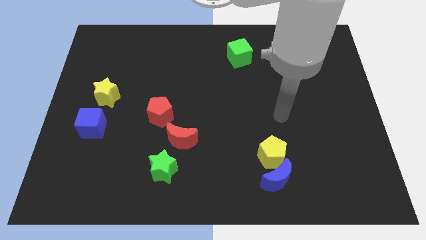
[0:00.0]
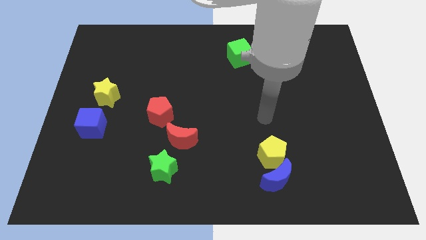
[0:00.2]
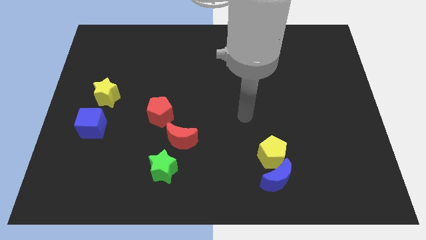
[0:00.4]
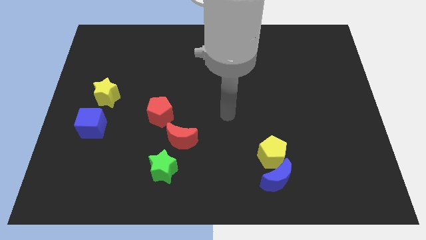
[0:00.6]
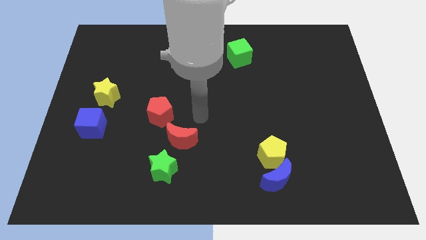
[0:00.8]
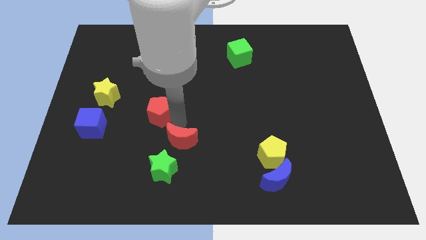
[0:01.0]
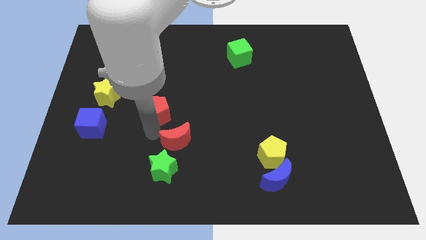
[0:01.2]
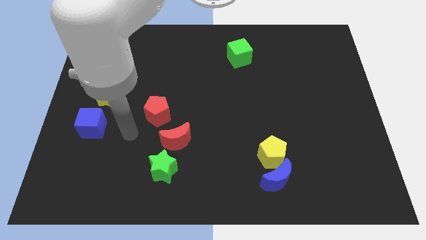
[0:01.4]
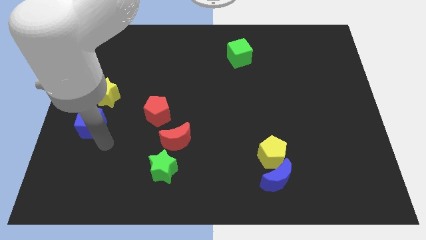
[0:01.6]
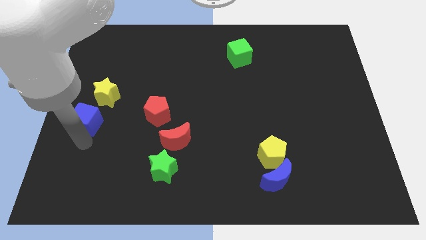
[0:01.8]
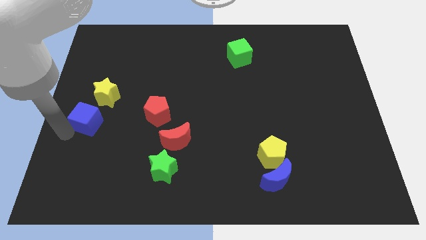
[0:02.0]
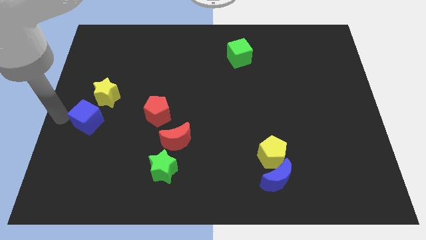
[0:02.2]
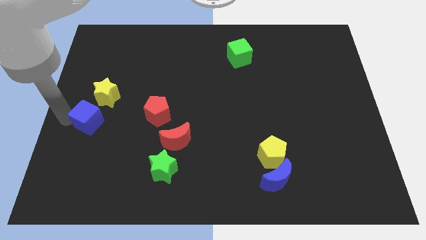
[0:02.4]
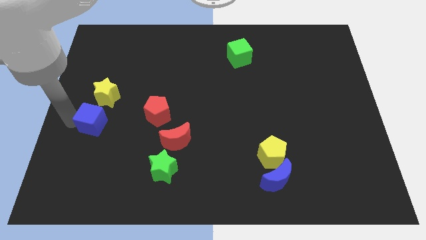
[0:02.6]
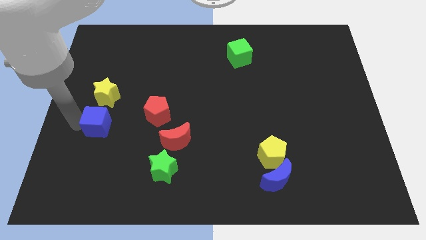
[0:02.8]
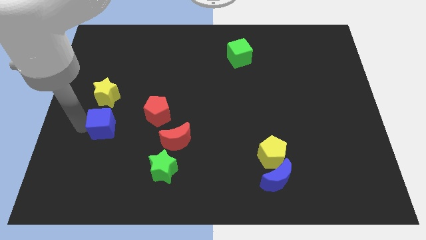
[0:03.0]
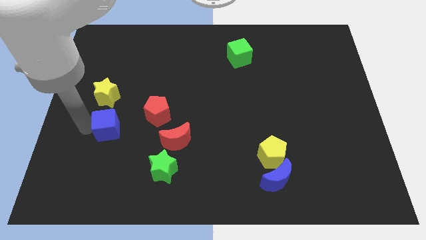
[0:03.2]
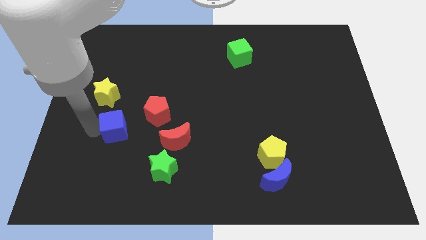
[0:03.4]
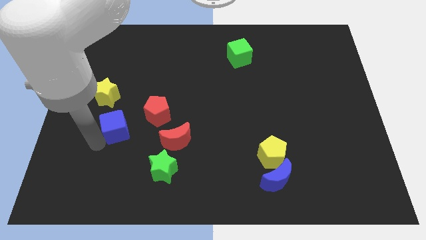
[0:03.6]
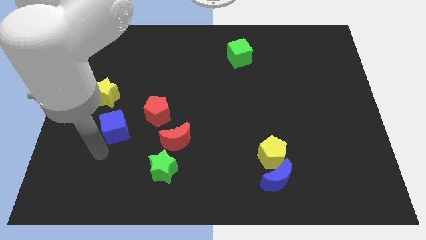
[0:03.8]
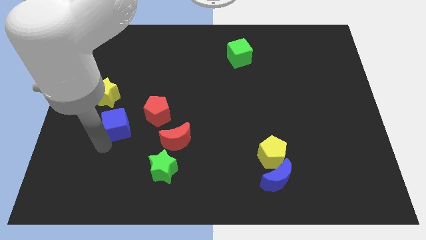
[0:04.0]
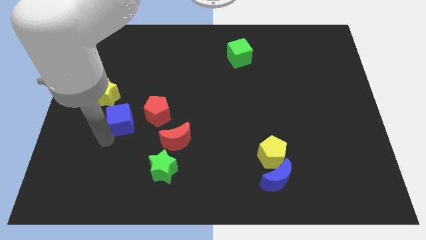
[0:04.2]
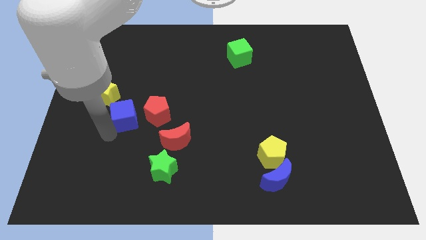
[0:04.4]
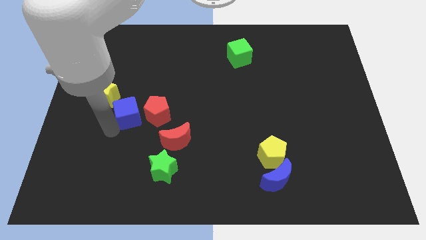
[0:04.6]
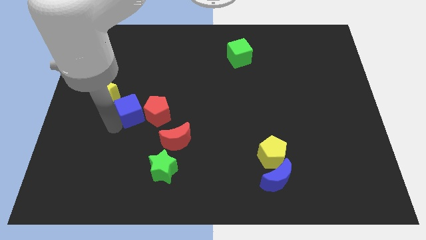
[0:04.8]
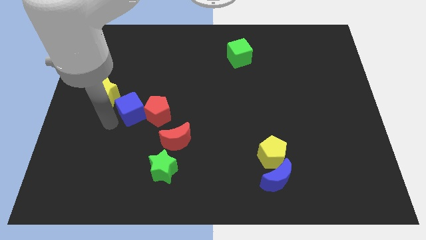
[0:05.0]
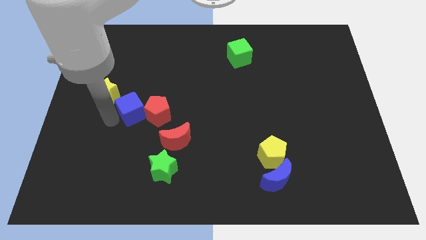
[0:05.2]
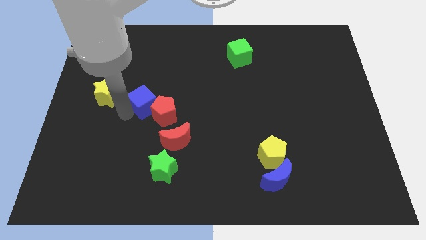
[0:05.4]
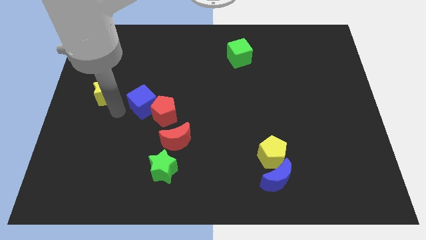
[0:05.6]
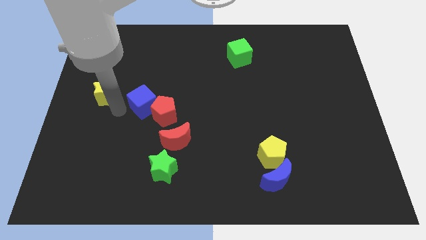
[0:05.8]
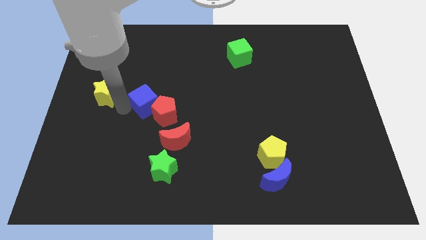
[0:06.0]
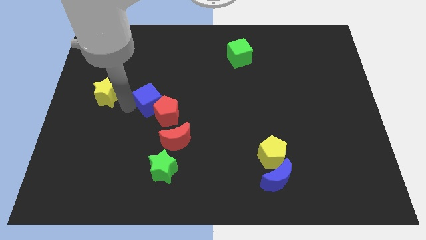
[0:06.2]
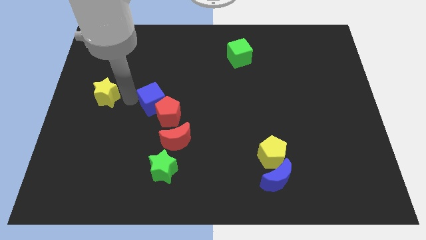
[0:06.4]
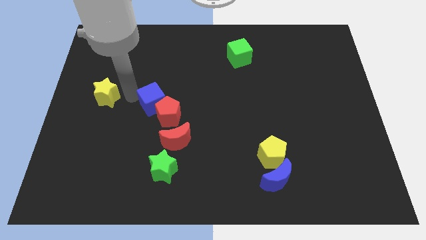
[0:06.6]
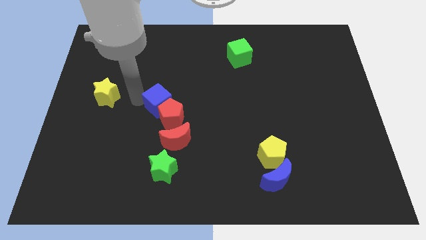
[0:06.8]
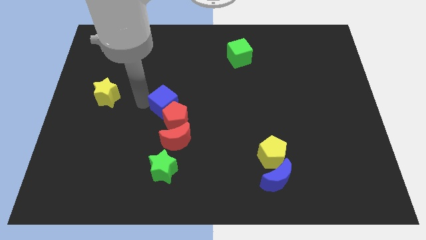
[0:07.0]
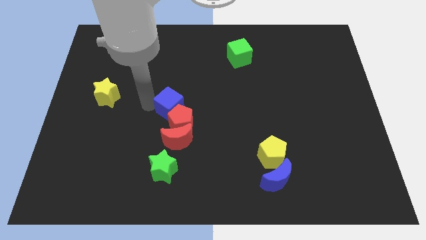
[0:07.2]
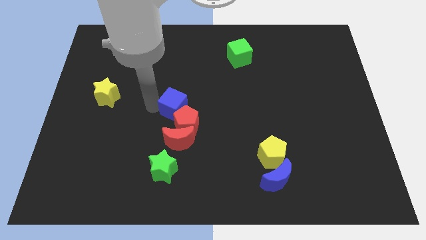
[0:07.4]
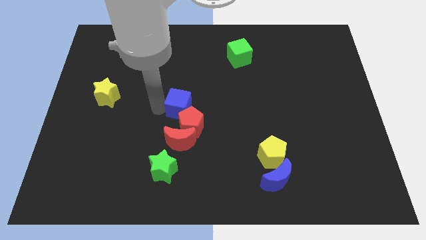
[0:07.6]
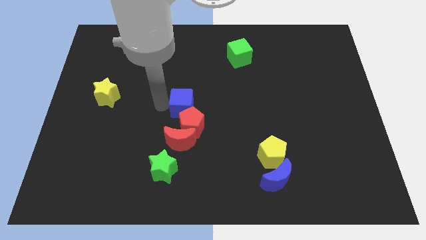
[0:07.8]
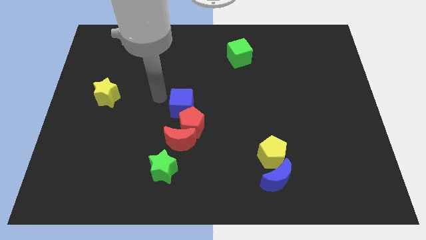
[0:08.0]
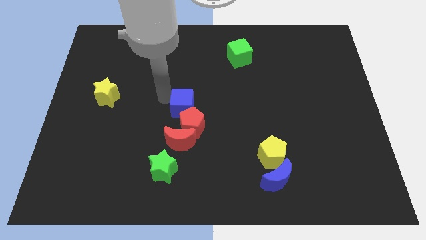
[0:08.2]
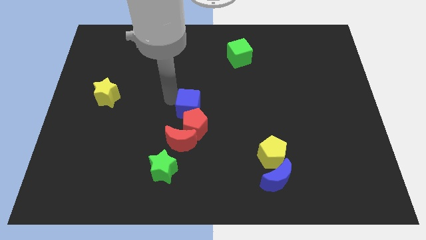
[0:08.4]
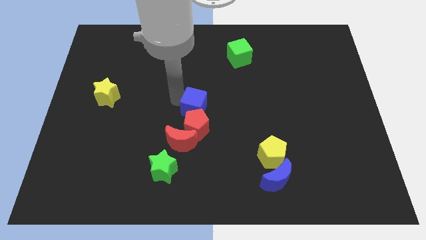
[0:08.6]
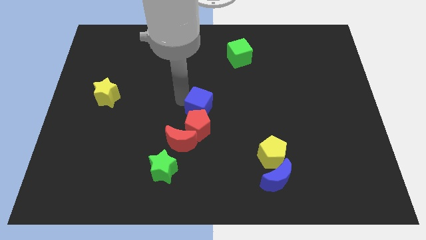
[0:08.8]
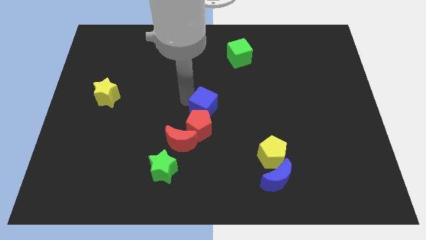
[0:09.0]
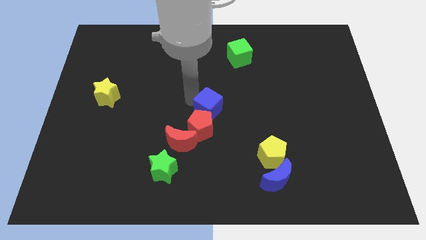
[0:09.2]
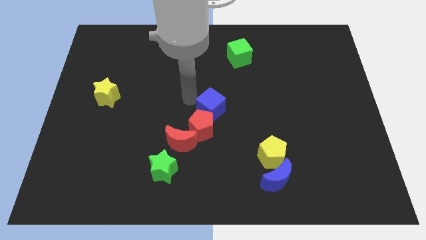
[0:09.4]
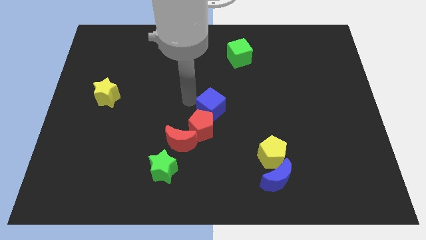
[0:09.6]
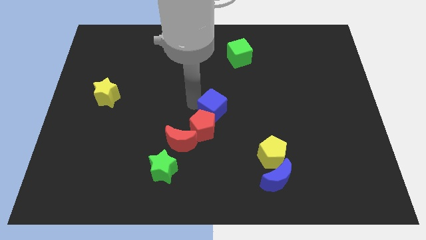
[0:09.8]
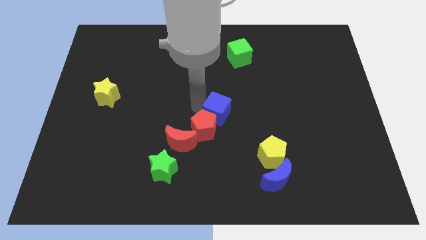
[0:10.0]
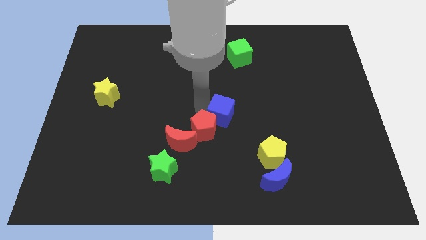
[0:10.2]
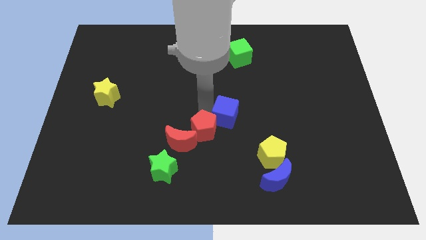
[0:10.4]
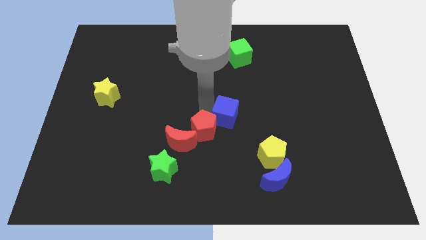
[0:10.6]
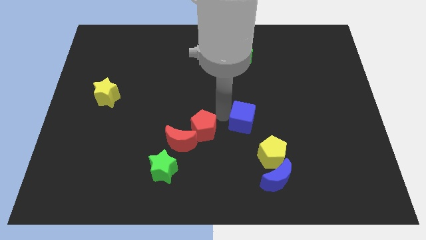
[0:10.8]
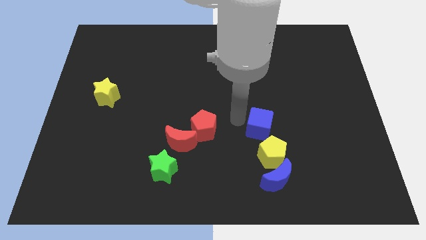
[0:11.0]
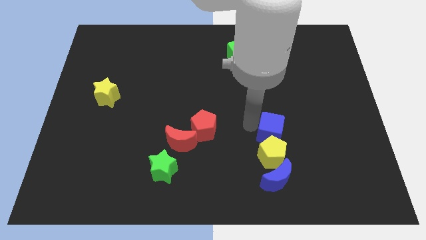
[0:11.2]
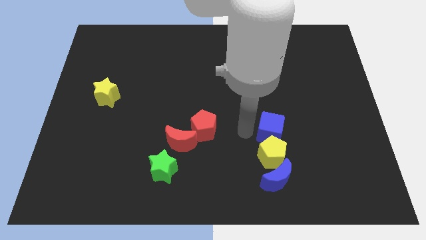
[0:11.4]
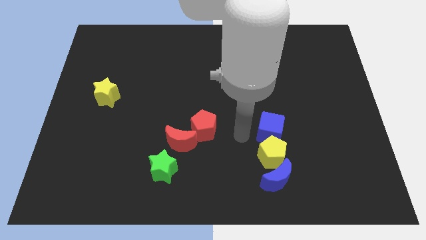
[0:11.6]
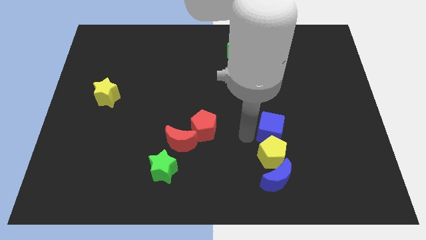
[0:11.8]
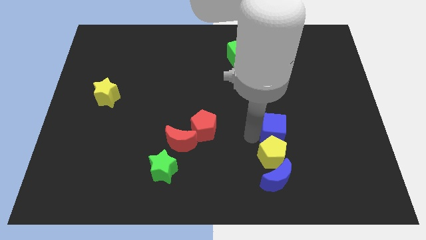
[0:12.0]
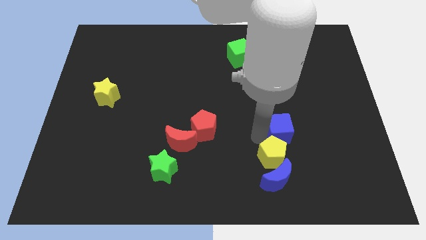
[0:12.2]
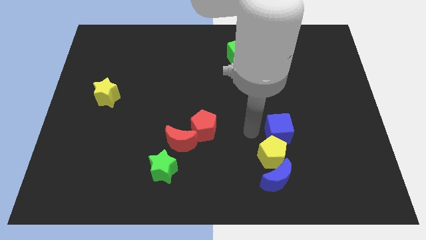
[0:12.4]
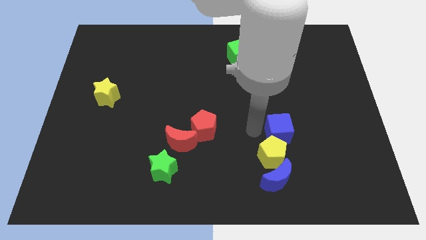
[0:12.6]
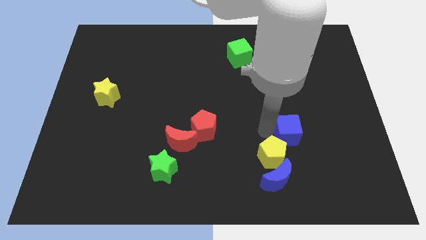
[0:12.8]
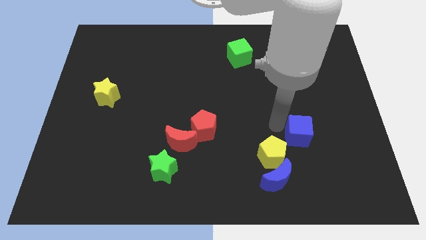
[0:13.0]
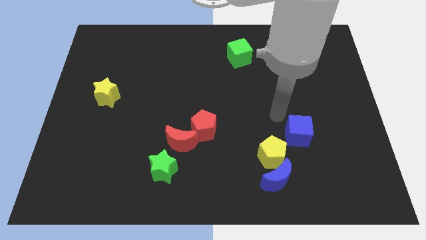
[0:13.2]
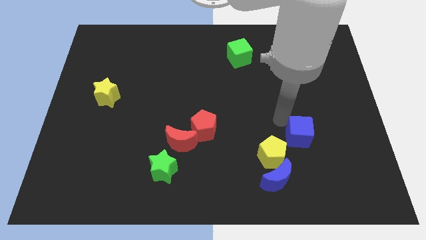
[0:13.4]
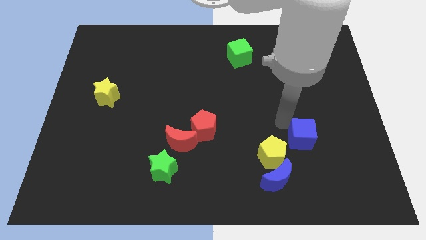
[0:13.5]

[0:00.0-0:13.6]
put the blue cube right of the yellow pentagon
